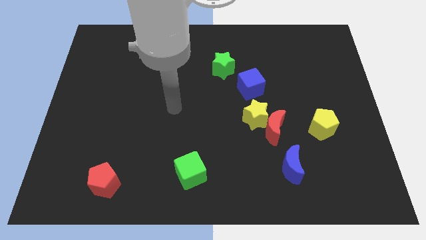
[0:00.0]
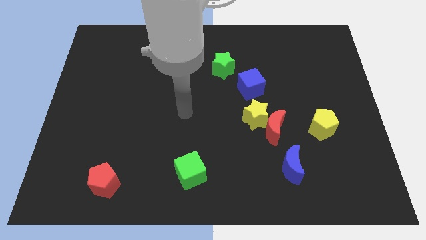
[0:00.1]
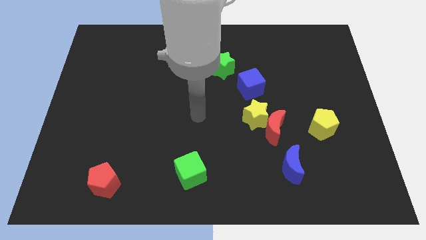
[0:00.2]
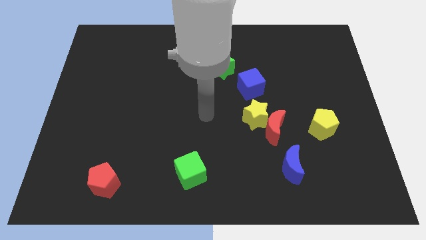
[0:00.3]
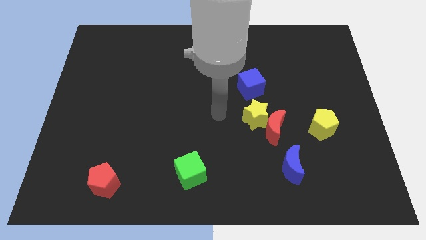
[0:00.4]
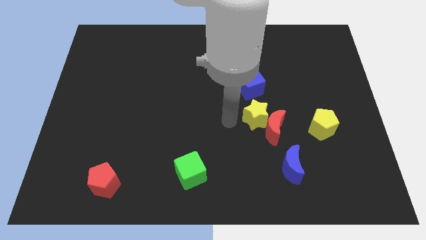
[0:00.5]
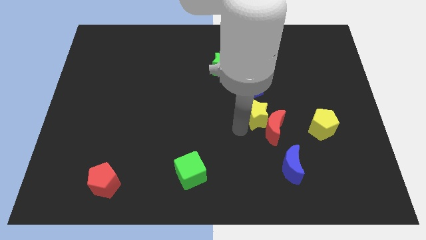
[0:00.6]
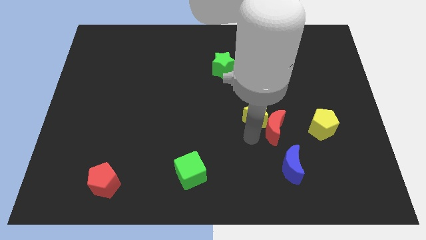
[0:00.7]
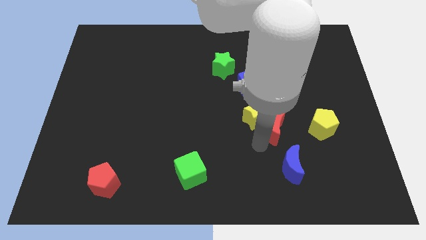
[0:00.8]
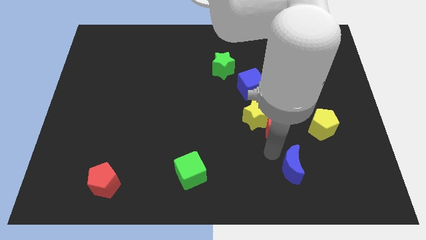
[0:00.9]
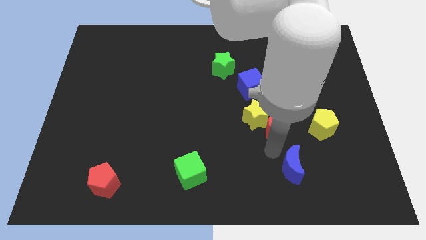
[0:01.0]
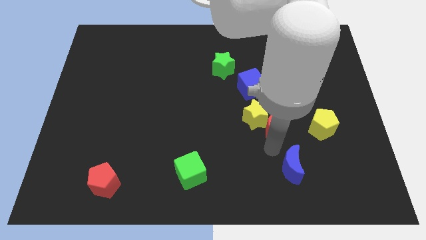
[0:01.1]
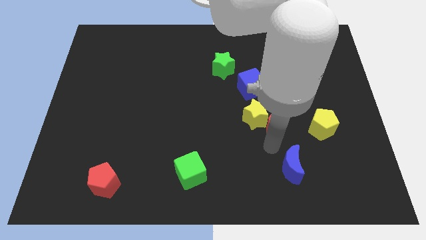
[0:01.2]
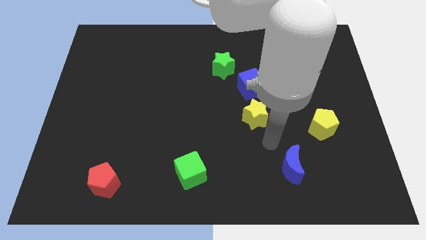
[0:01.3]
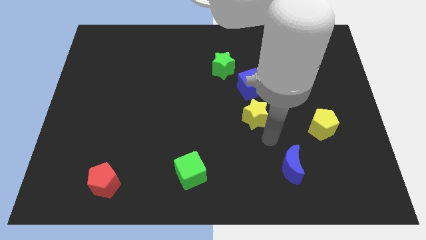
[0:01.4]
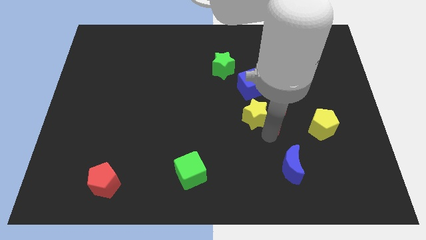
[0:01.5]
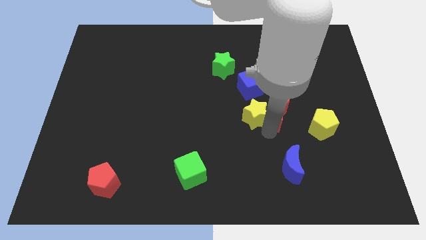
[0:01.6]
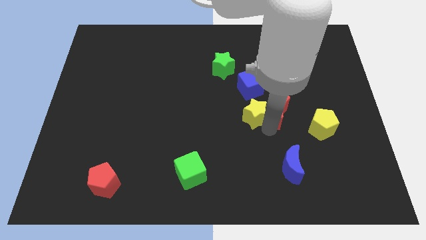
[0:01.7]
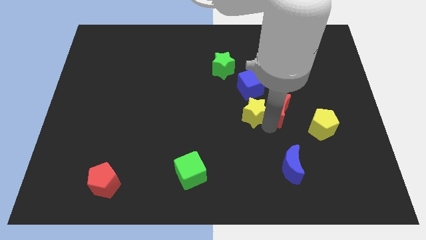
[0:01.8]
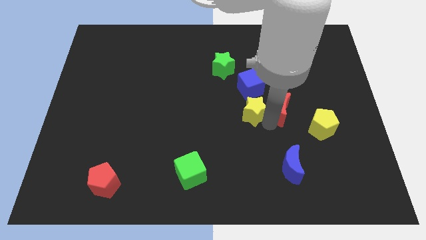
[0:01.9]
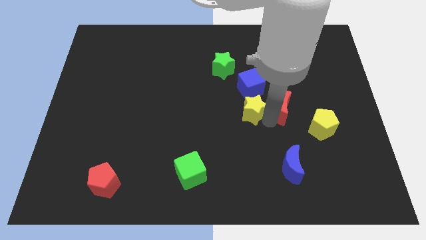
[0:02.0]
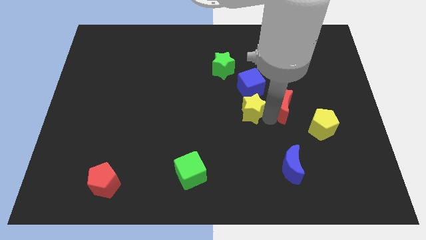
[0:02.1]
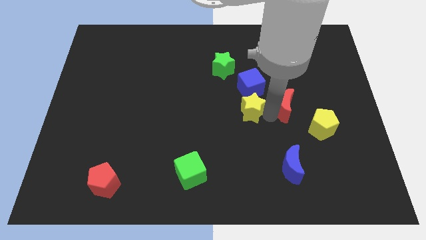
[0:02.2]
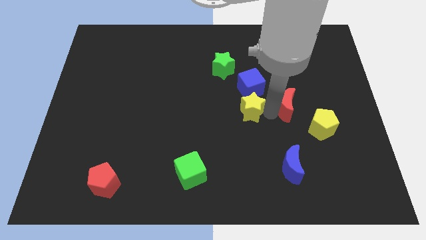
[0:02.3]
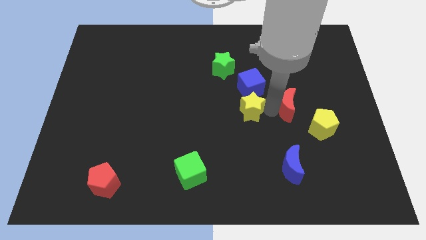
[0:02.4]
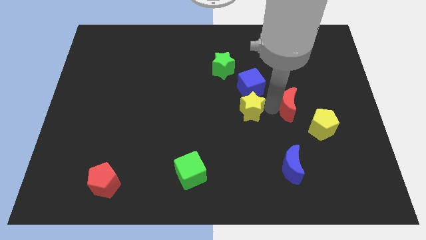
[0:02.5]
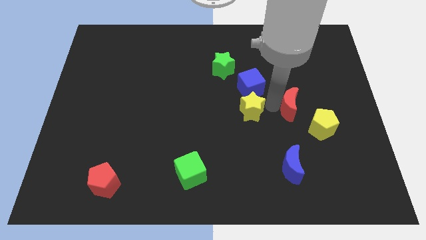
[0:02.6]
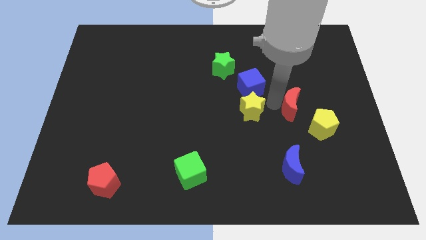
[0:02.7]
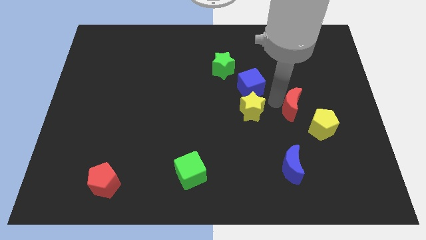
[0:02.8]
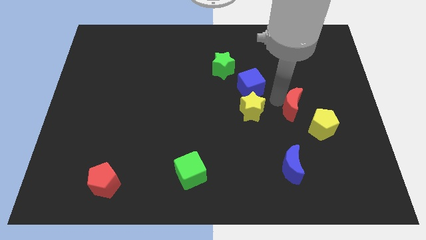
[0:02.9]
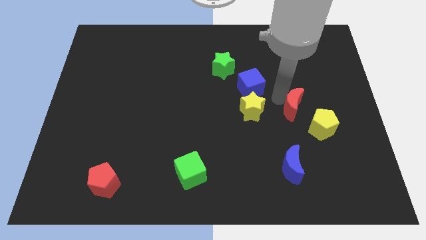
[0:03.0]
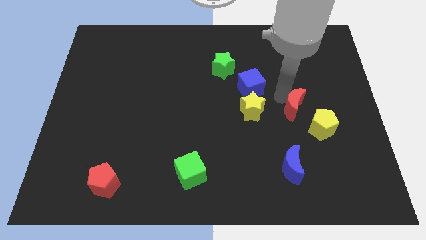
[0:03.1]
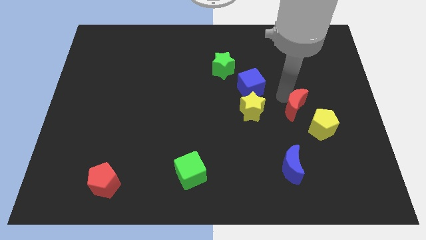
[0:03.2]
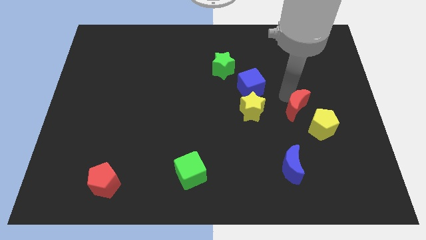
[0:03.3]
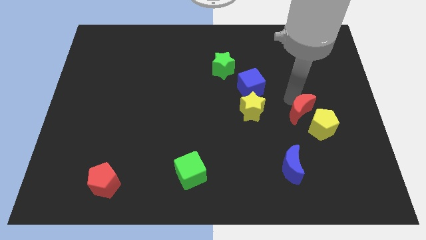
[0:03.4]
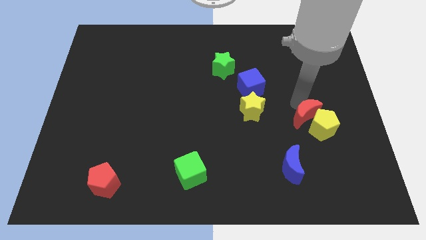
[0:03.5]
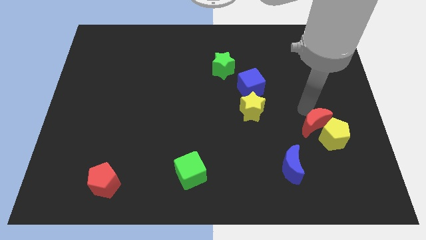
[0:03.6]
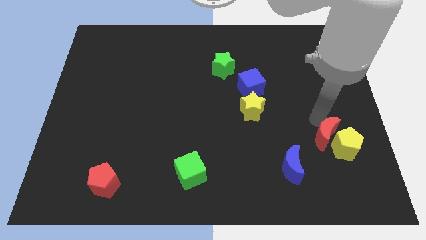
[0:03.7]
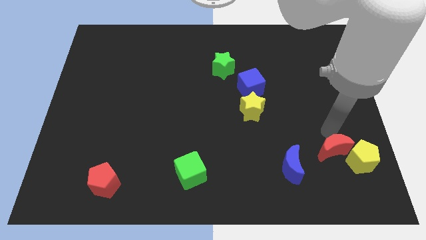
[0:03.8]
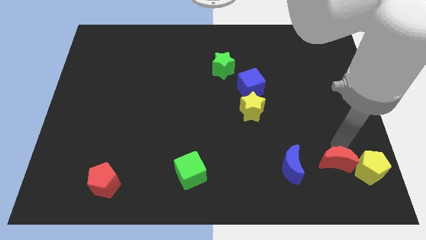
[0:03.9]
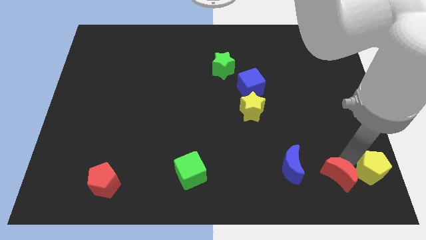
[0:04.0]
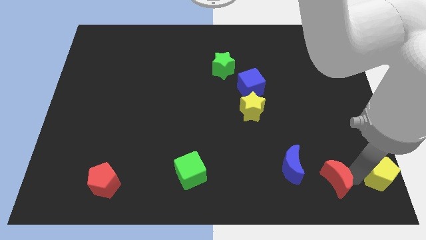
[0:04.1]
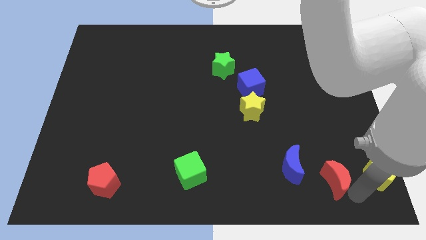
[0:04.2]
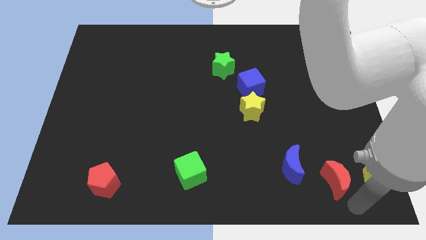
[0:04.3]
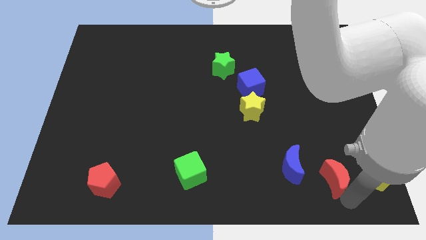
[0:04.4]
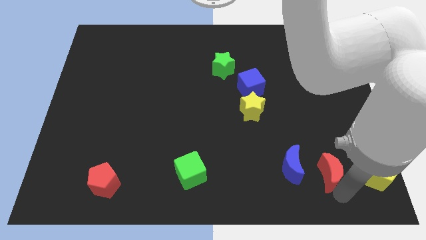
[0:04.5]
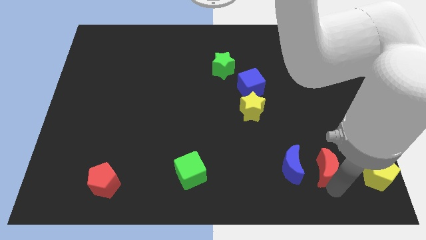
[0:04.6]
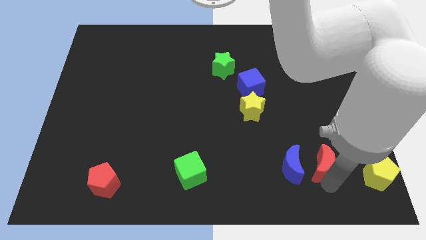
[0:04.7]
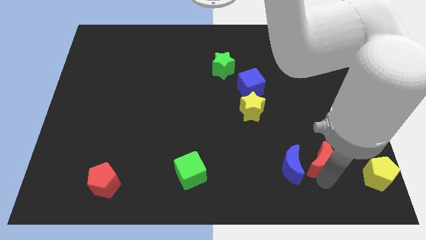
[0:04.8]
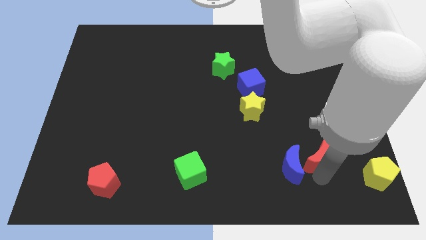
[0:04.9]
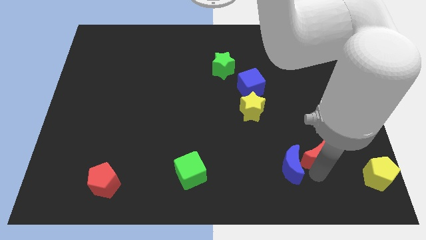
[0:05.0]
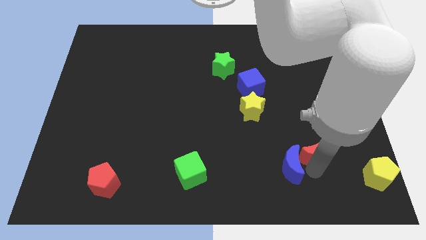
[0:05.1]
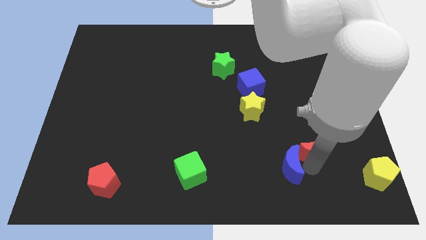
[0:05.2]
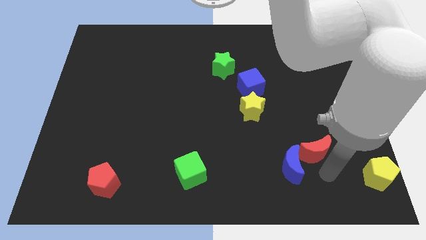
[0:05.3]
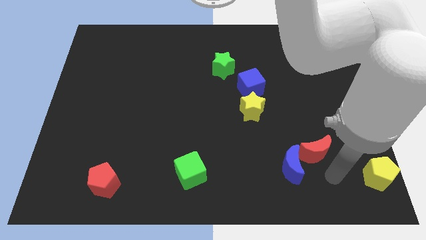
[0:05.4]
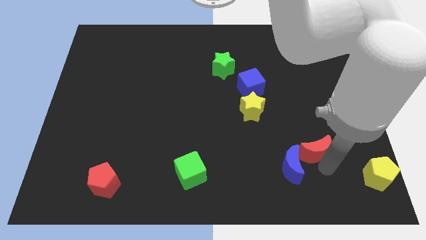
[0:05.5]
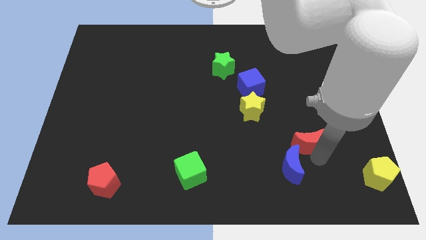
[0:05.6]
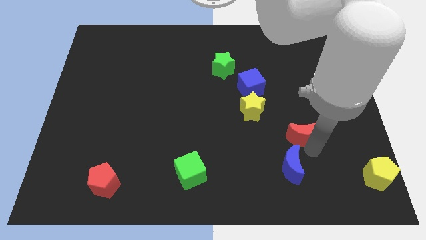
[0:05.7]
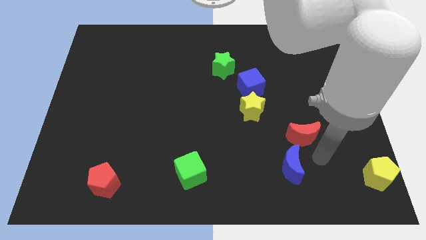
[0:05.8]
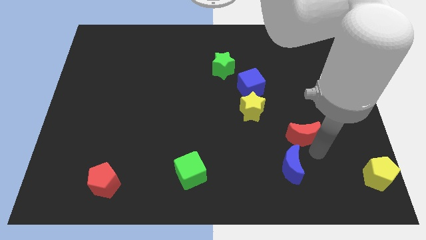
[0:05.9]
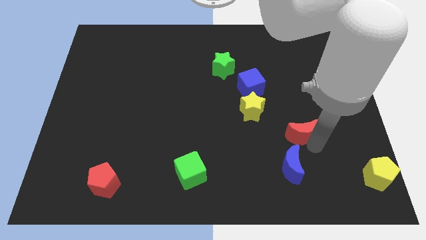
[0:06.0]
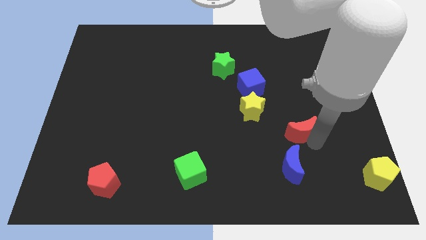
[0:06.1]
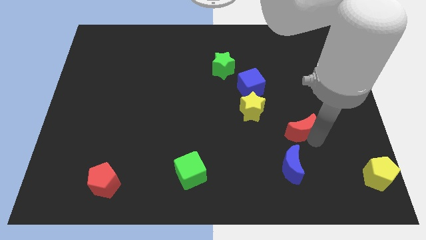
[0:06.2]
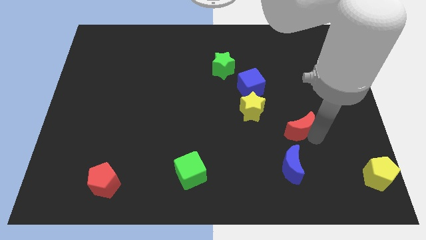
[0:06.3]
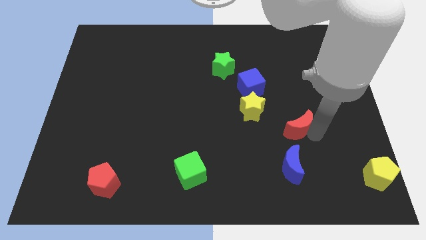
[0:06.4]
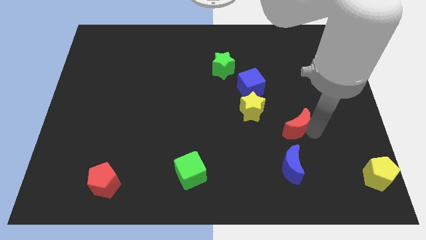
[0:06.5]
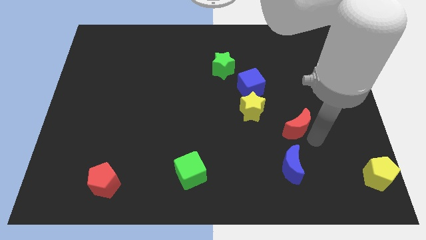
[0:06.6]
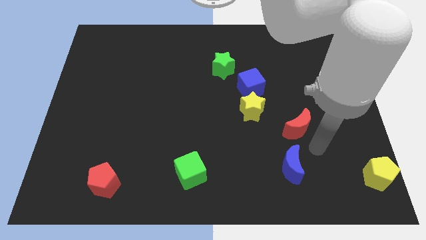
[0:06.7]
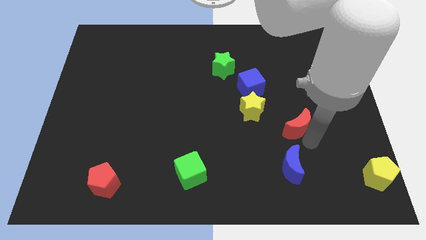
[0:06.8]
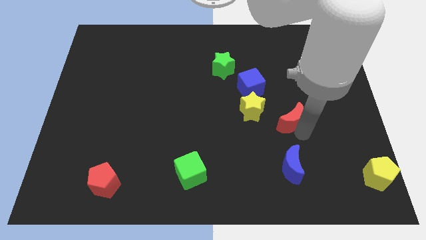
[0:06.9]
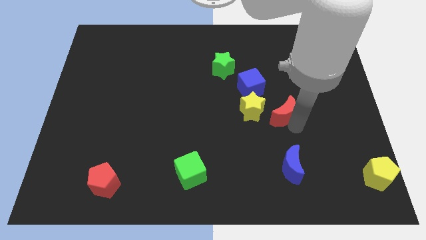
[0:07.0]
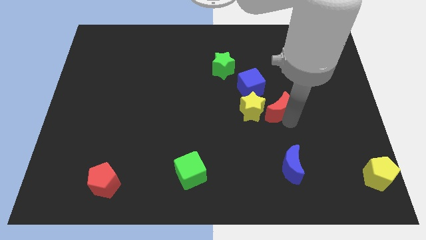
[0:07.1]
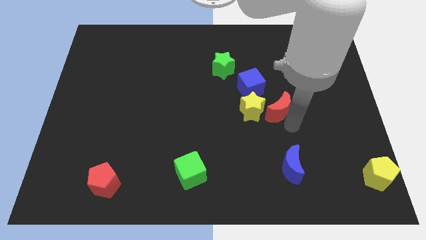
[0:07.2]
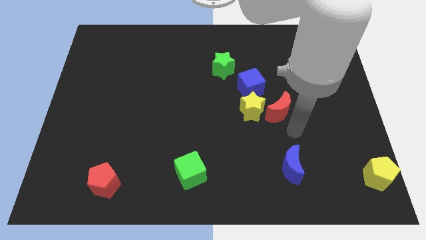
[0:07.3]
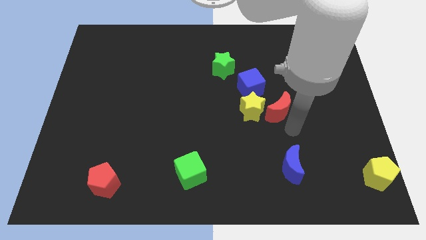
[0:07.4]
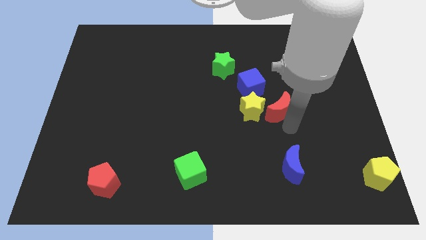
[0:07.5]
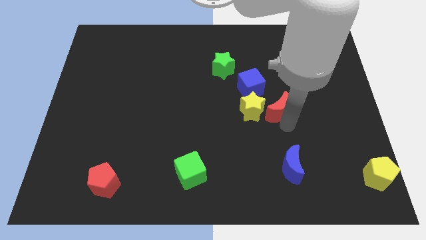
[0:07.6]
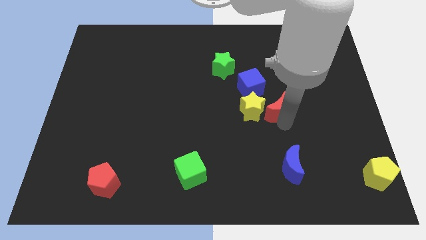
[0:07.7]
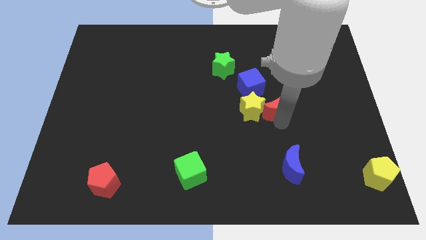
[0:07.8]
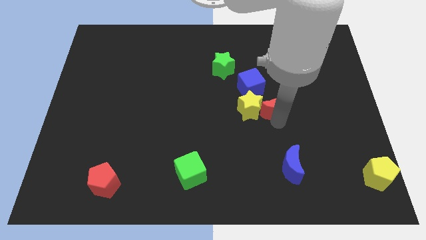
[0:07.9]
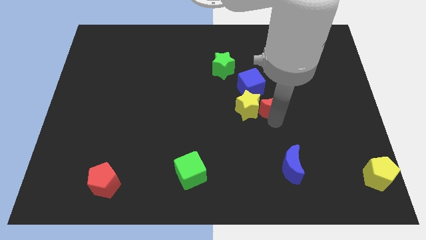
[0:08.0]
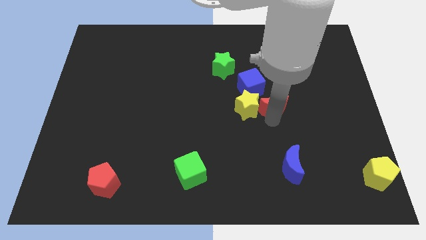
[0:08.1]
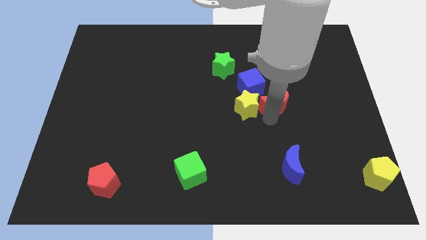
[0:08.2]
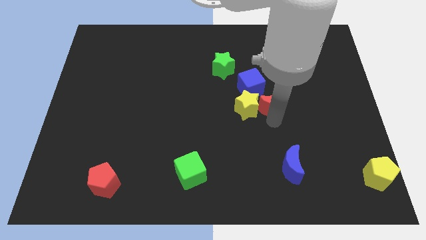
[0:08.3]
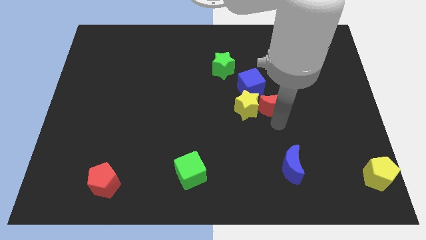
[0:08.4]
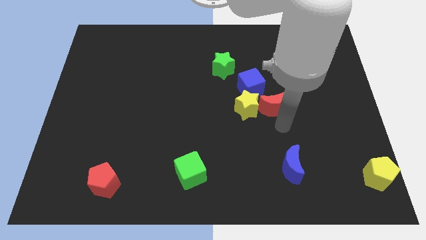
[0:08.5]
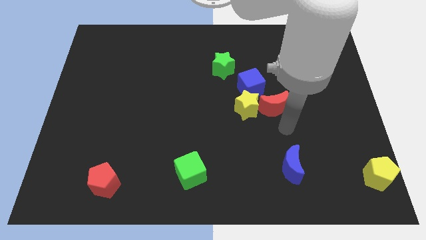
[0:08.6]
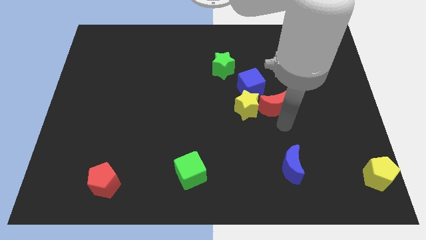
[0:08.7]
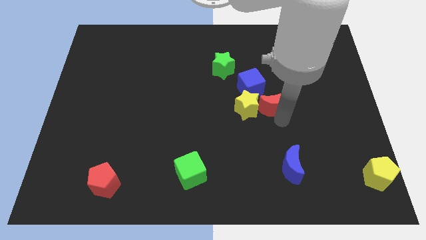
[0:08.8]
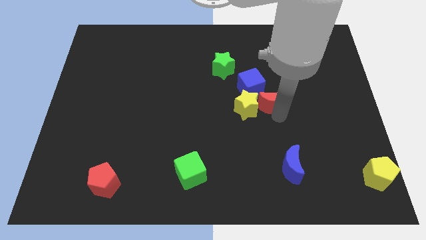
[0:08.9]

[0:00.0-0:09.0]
slightly push the red moon upwards
